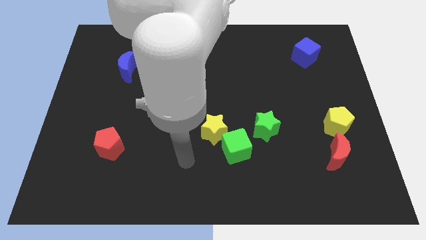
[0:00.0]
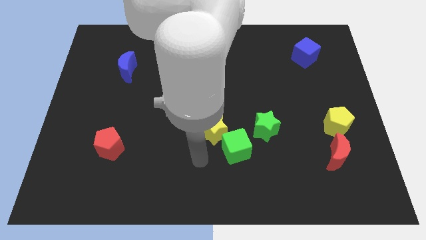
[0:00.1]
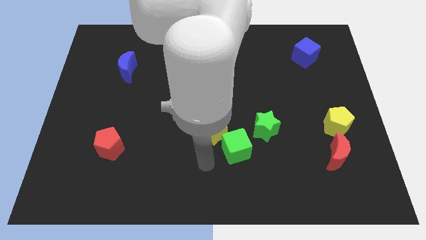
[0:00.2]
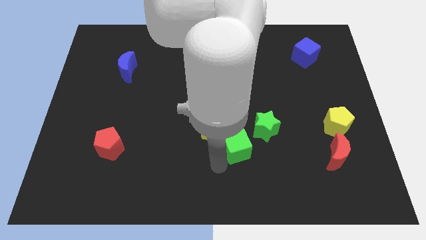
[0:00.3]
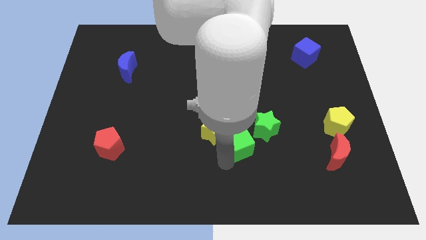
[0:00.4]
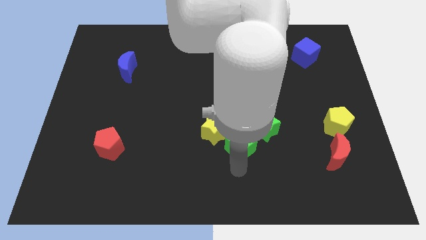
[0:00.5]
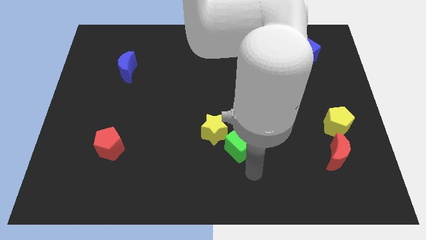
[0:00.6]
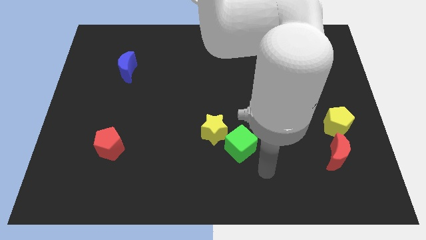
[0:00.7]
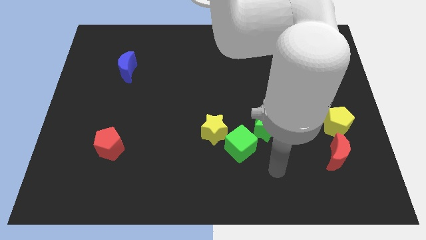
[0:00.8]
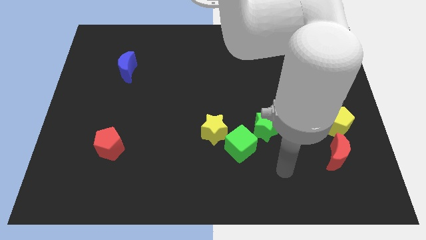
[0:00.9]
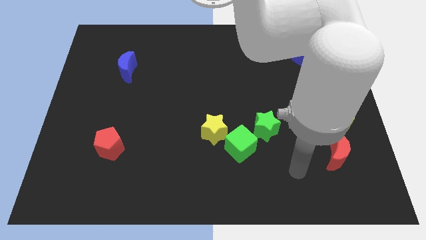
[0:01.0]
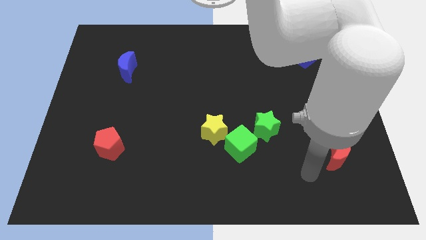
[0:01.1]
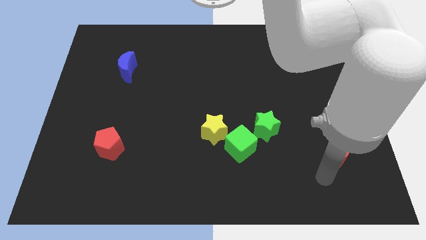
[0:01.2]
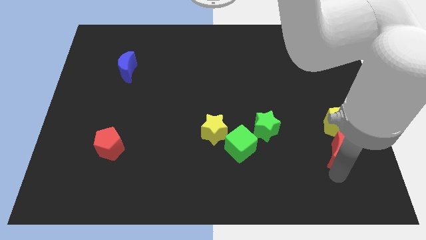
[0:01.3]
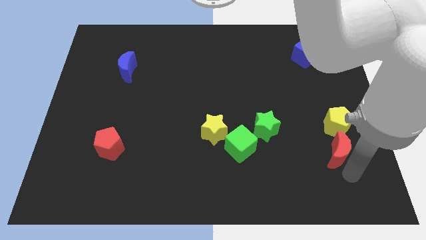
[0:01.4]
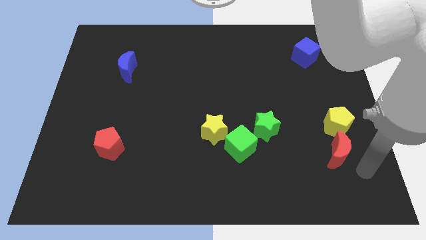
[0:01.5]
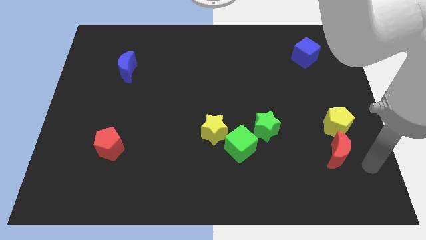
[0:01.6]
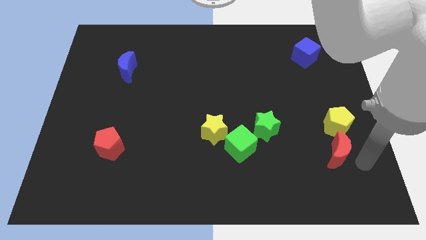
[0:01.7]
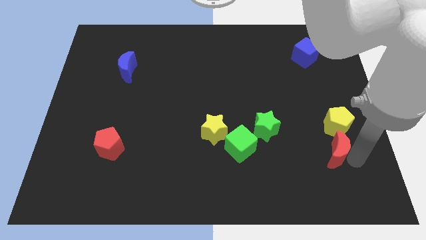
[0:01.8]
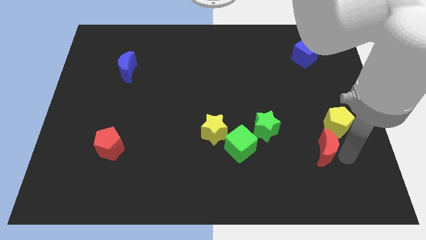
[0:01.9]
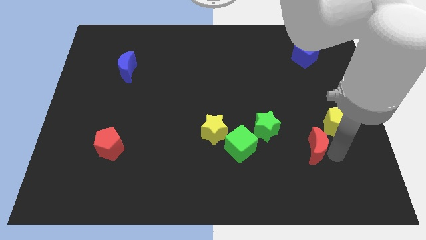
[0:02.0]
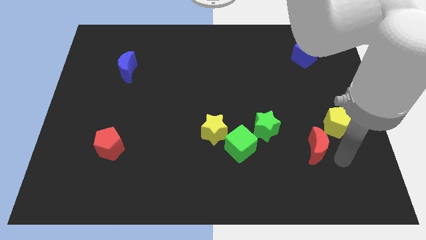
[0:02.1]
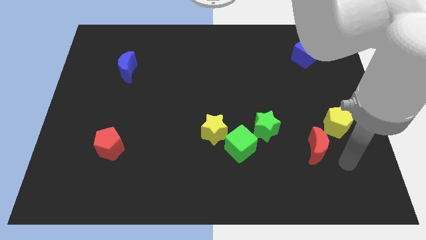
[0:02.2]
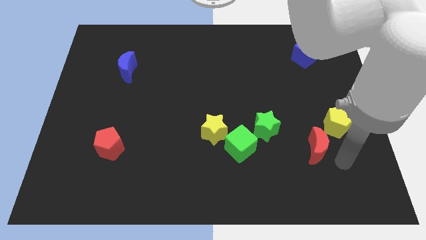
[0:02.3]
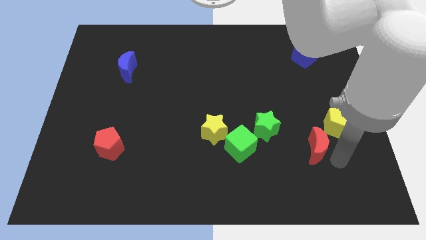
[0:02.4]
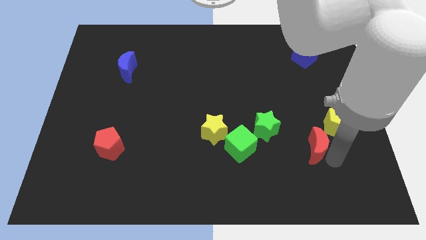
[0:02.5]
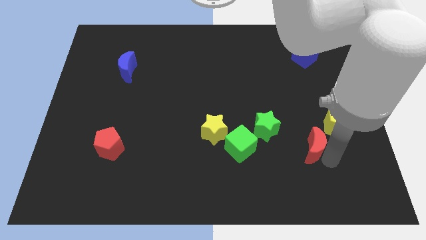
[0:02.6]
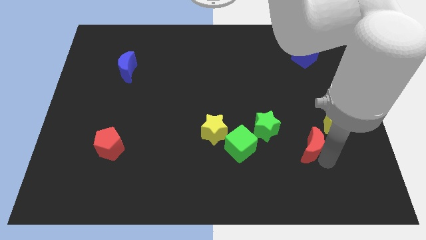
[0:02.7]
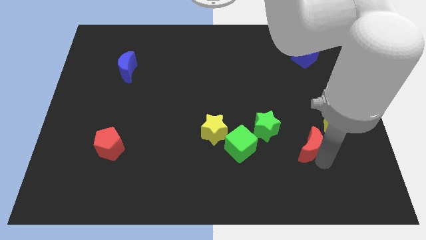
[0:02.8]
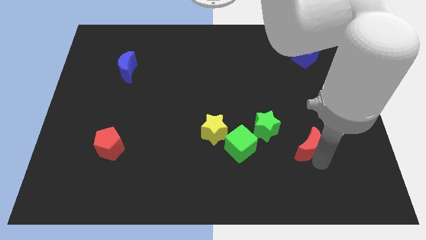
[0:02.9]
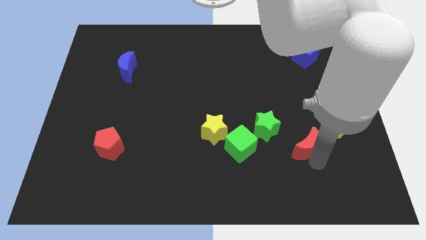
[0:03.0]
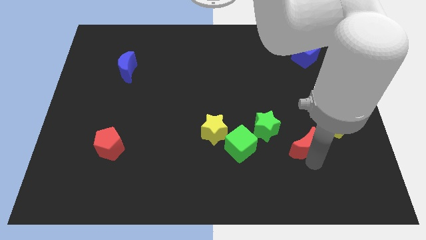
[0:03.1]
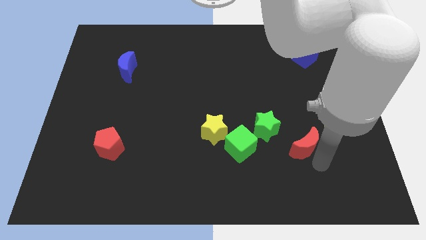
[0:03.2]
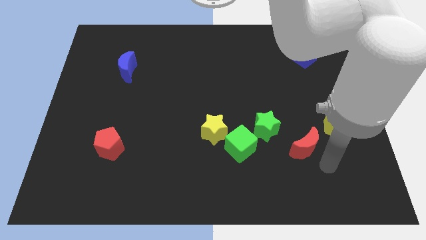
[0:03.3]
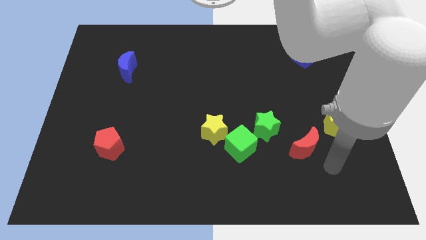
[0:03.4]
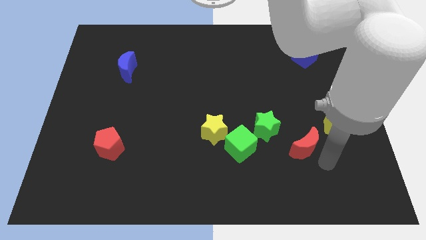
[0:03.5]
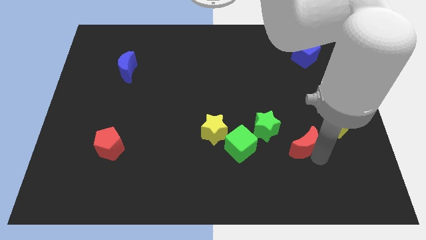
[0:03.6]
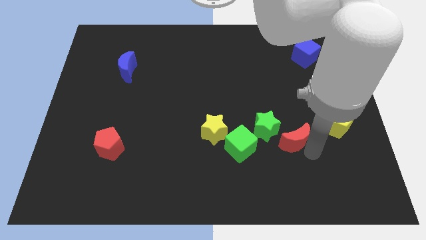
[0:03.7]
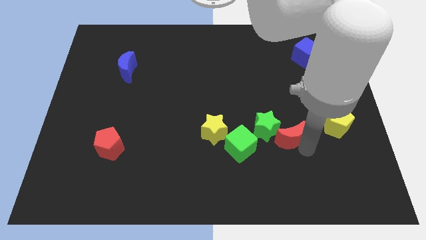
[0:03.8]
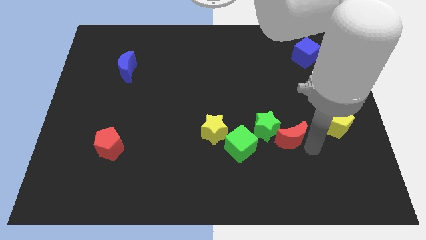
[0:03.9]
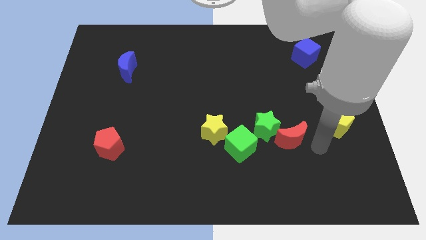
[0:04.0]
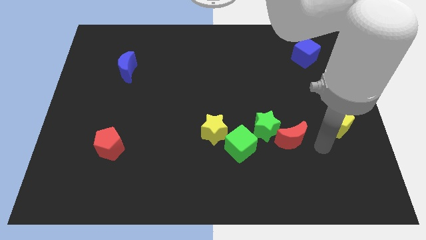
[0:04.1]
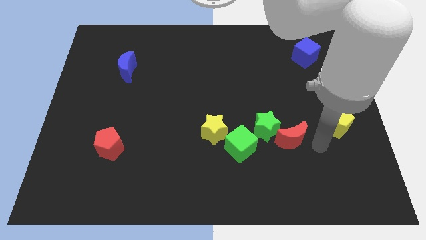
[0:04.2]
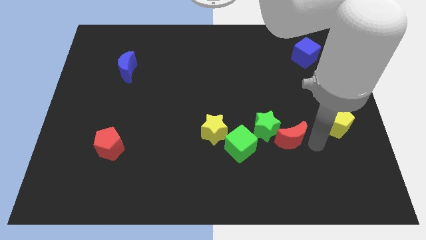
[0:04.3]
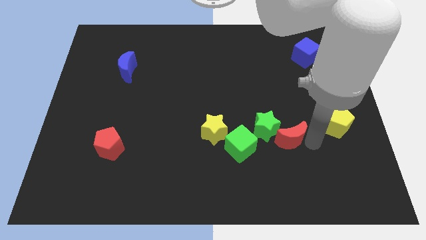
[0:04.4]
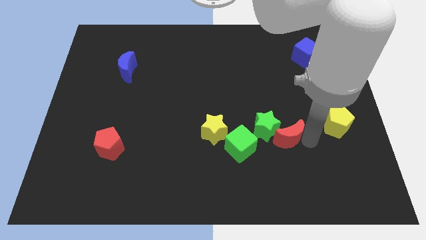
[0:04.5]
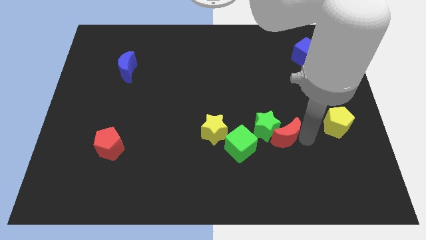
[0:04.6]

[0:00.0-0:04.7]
push the red moon to the right side of the yellow star

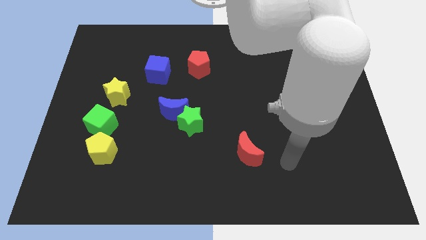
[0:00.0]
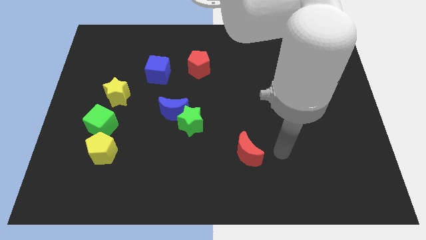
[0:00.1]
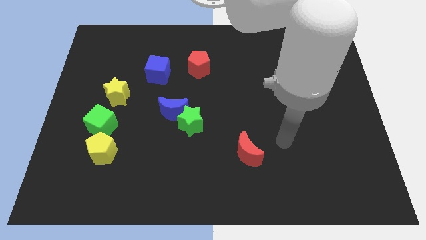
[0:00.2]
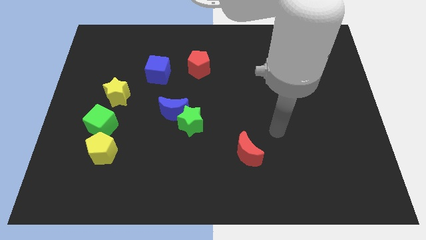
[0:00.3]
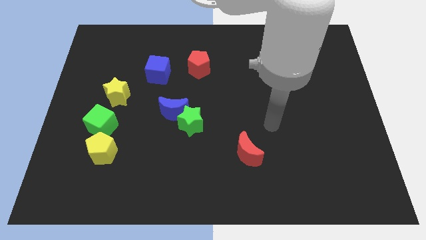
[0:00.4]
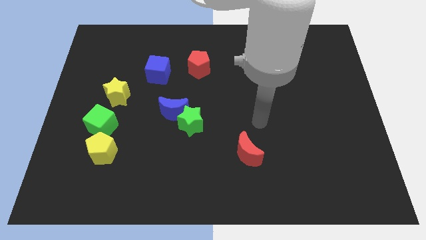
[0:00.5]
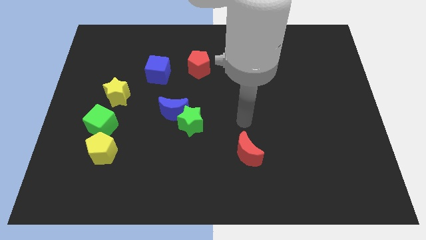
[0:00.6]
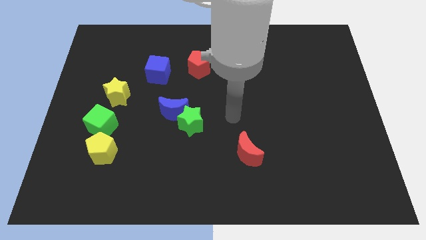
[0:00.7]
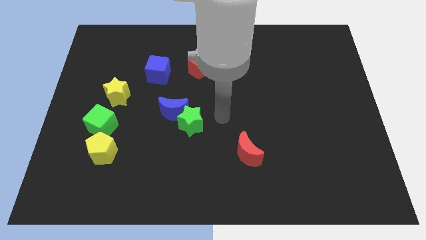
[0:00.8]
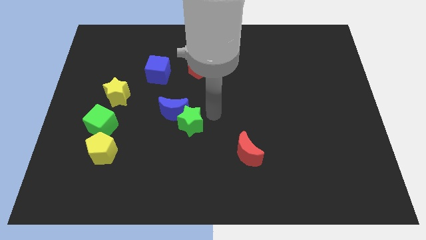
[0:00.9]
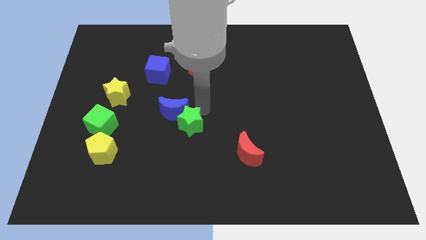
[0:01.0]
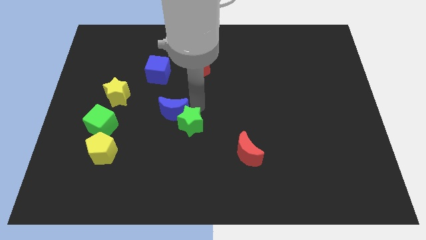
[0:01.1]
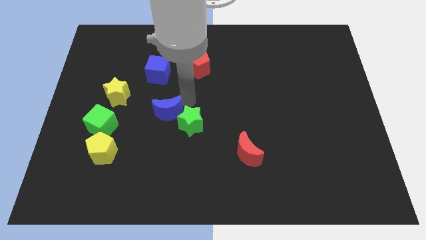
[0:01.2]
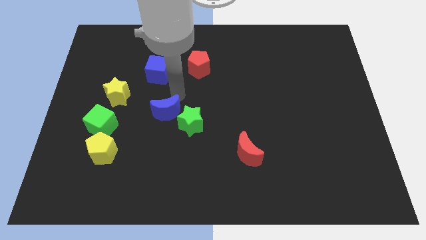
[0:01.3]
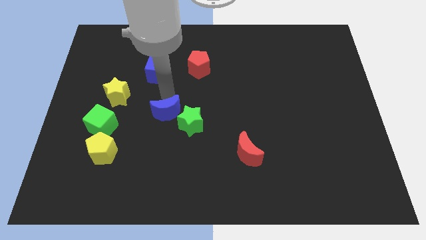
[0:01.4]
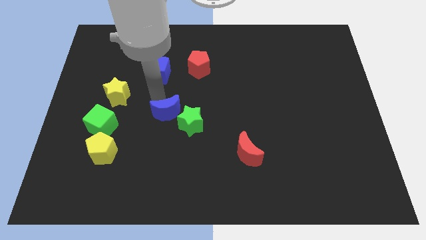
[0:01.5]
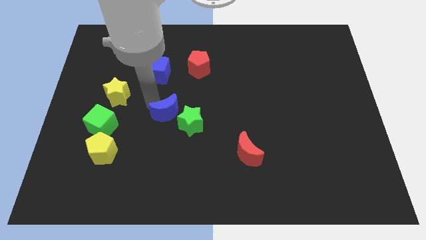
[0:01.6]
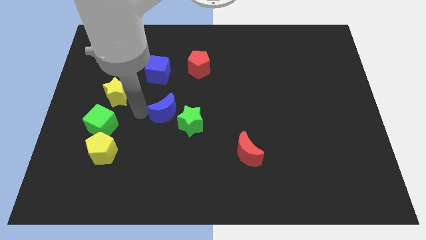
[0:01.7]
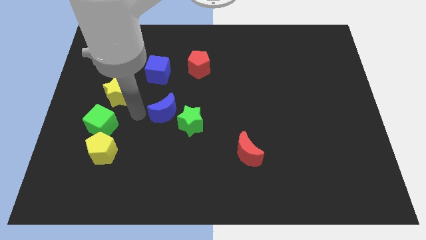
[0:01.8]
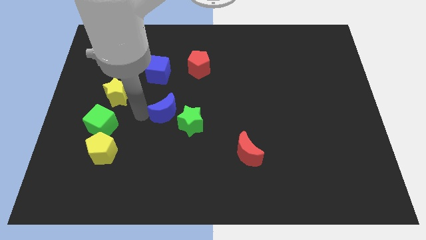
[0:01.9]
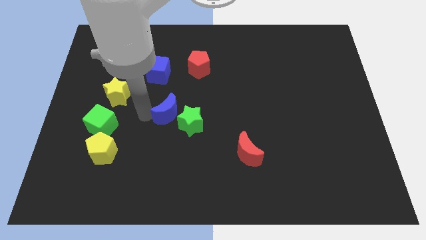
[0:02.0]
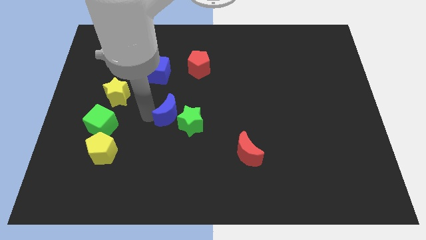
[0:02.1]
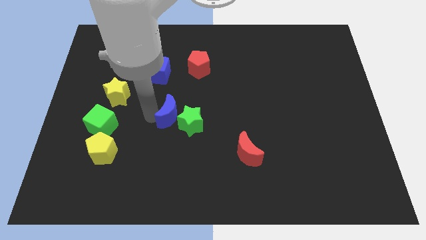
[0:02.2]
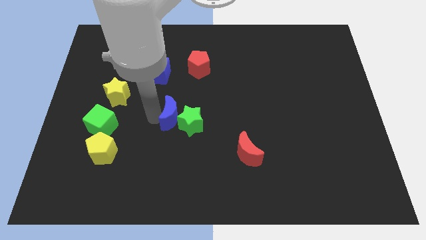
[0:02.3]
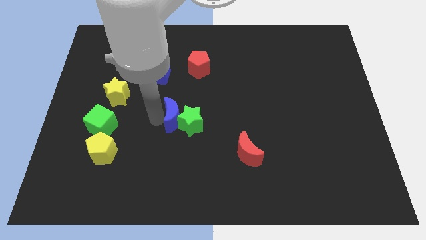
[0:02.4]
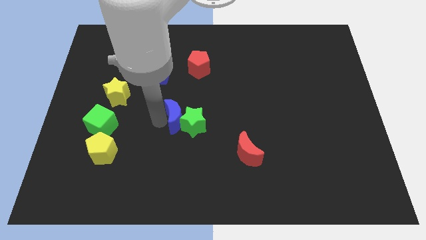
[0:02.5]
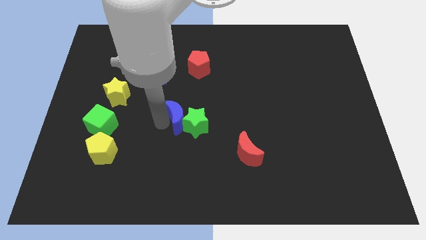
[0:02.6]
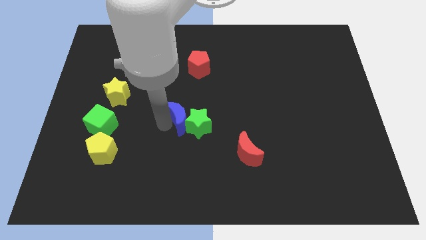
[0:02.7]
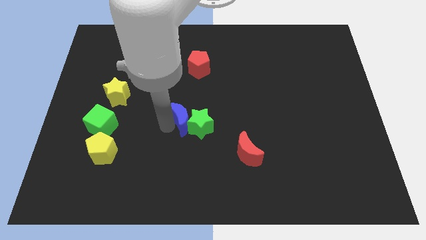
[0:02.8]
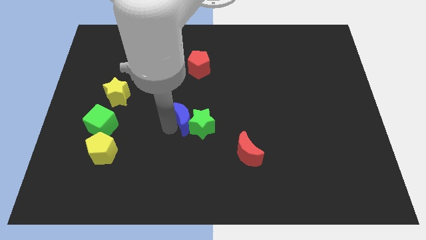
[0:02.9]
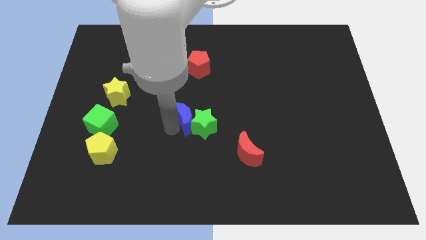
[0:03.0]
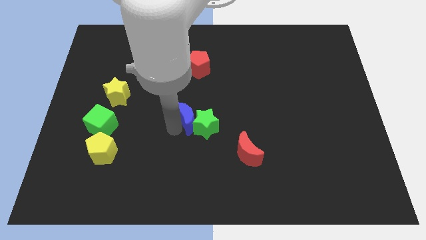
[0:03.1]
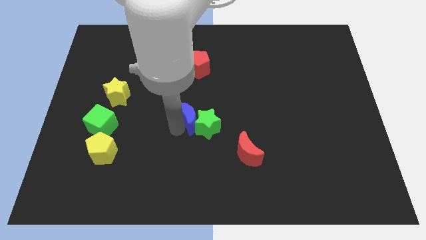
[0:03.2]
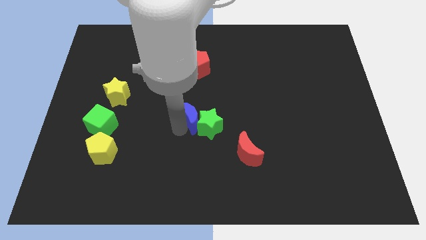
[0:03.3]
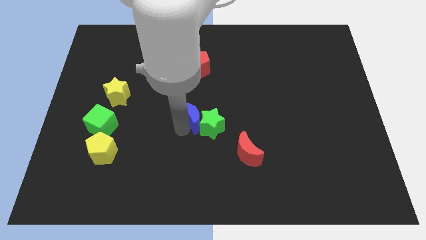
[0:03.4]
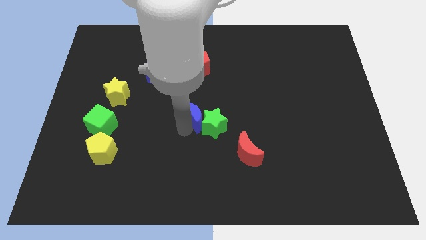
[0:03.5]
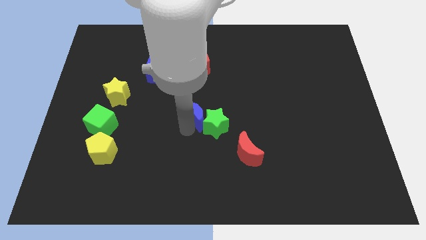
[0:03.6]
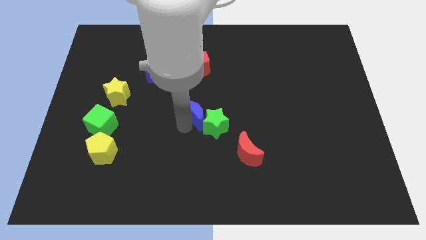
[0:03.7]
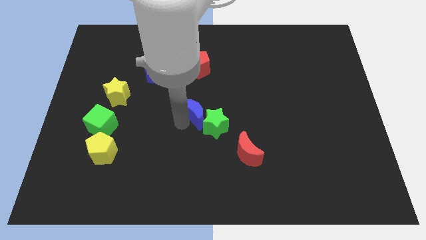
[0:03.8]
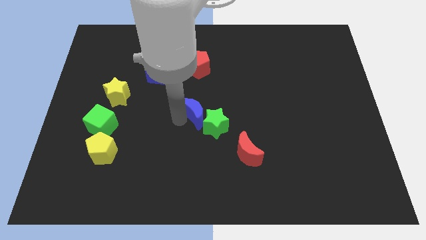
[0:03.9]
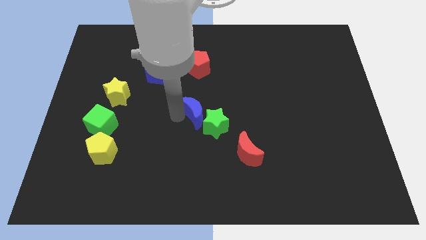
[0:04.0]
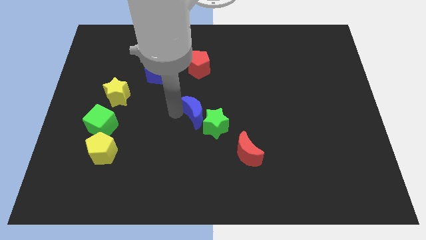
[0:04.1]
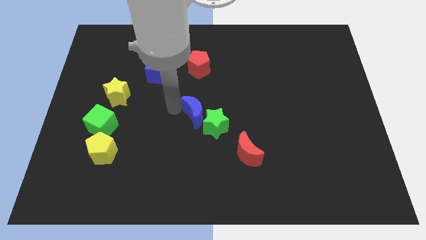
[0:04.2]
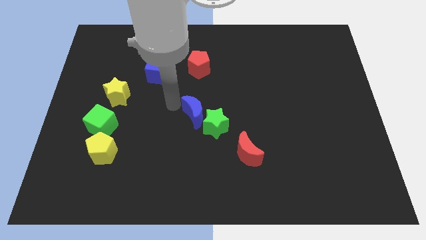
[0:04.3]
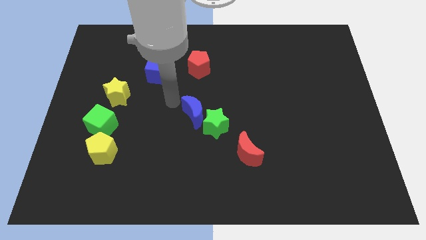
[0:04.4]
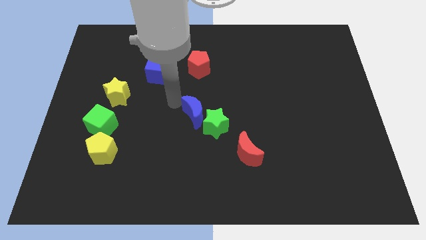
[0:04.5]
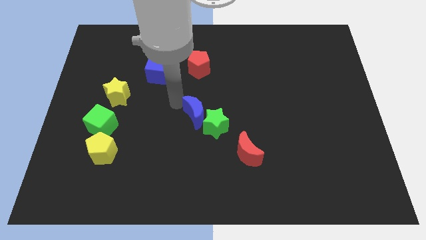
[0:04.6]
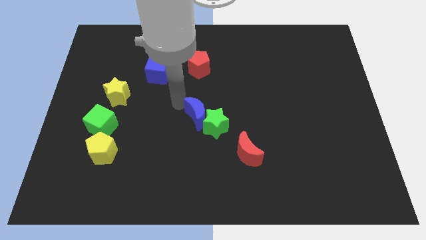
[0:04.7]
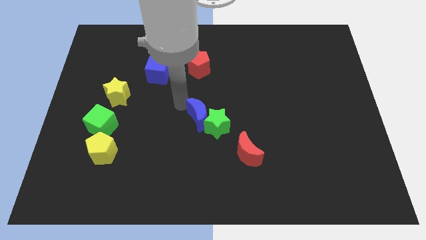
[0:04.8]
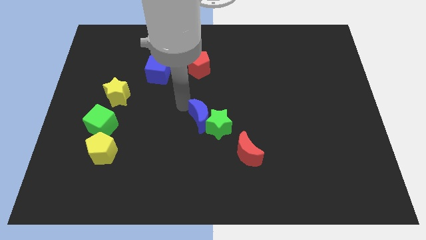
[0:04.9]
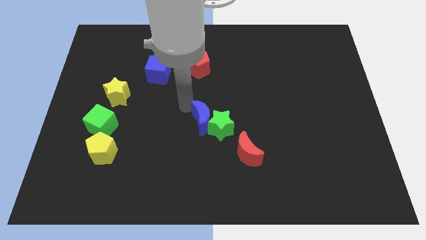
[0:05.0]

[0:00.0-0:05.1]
put the blue moon to the top left side of the red moon
